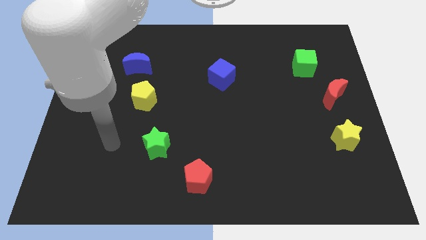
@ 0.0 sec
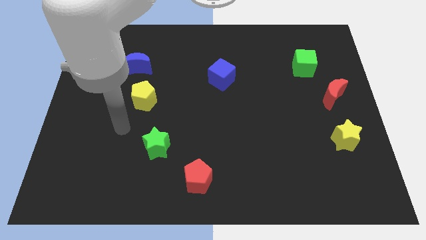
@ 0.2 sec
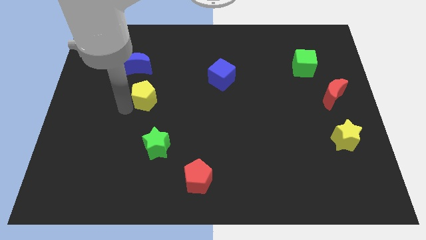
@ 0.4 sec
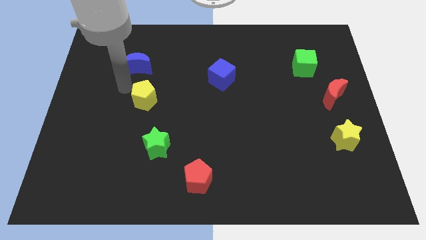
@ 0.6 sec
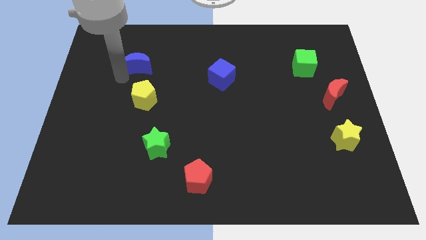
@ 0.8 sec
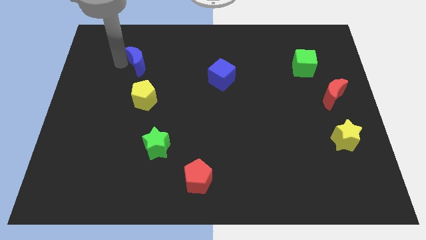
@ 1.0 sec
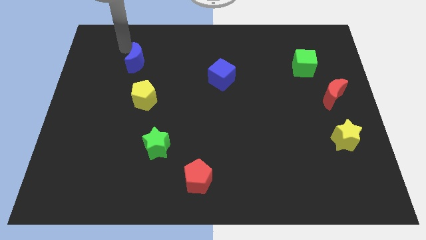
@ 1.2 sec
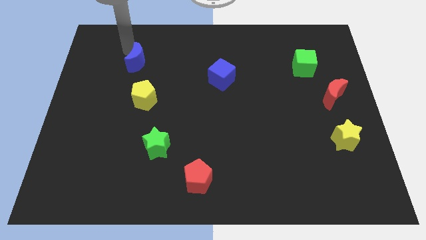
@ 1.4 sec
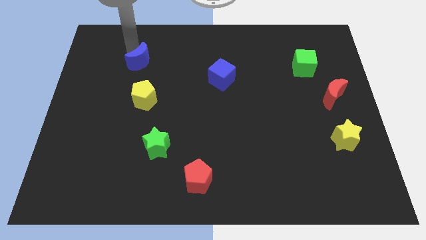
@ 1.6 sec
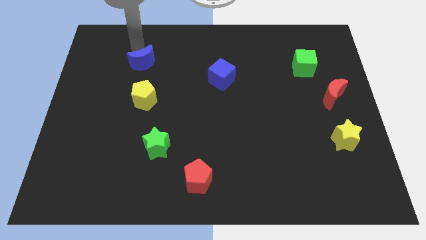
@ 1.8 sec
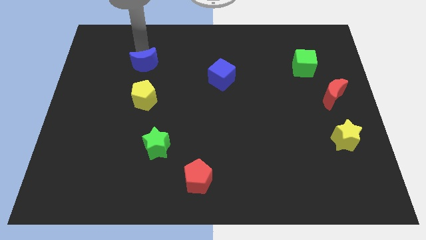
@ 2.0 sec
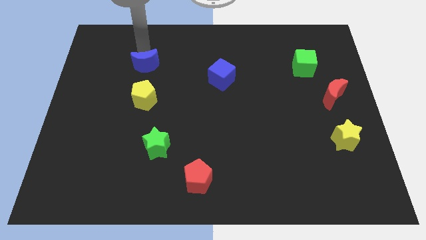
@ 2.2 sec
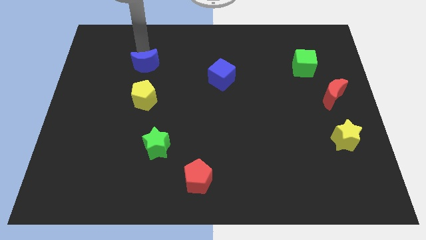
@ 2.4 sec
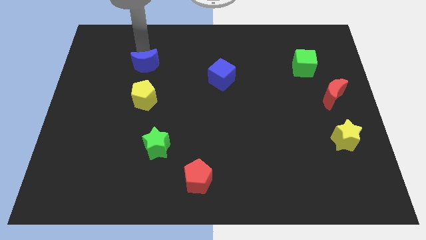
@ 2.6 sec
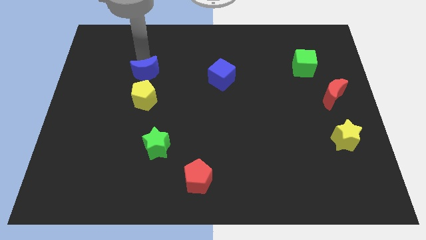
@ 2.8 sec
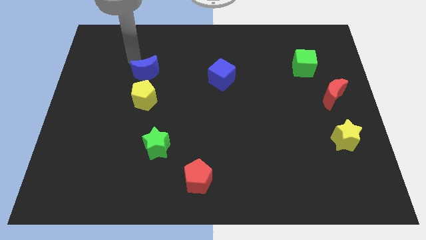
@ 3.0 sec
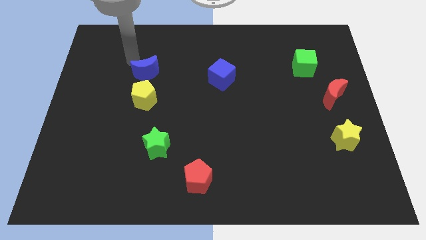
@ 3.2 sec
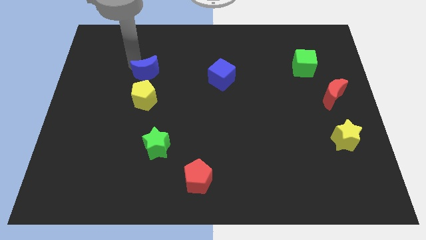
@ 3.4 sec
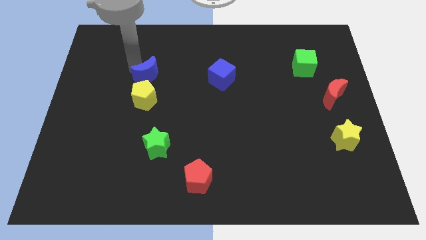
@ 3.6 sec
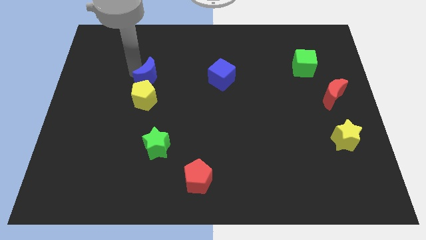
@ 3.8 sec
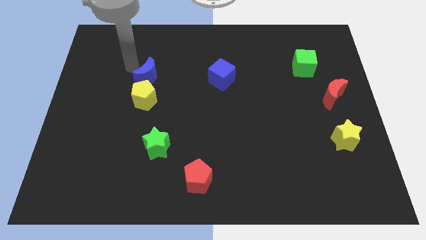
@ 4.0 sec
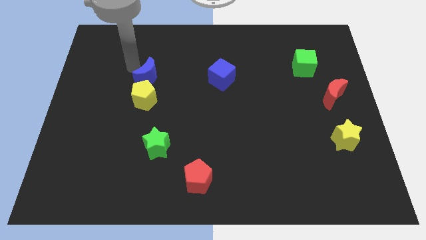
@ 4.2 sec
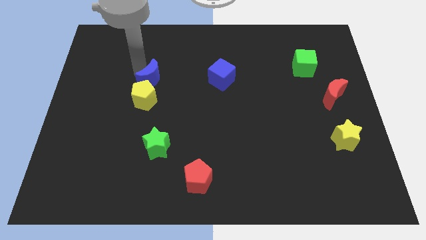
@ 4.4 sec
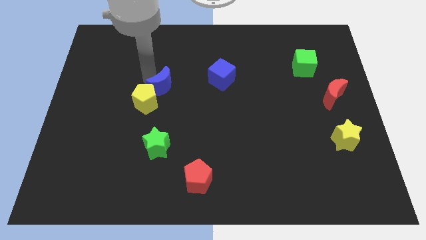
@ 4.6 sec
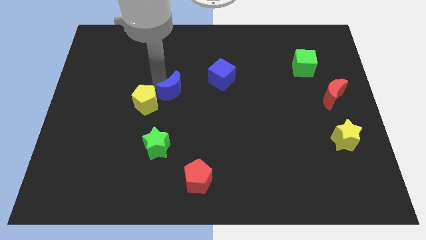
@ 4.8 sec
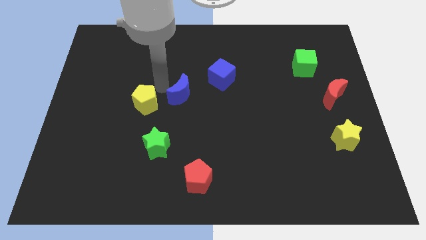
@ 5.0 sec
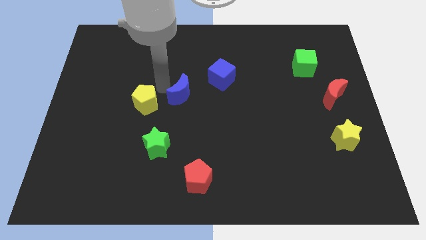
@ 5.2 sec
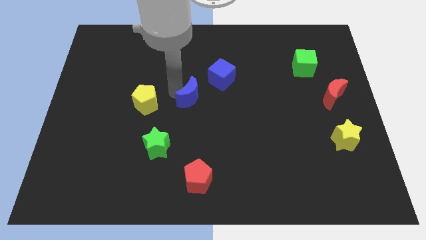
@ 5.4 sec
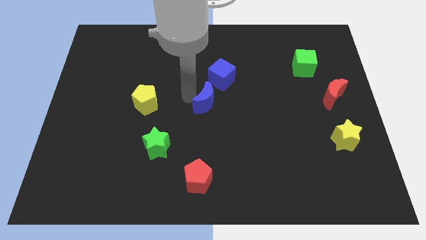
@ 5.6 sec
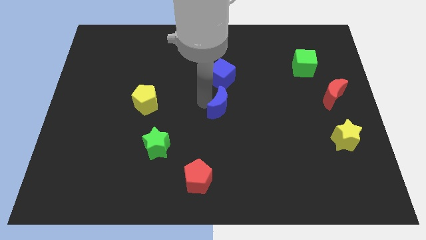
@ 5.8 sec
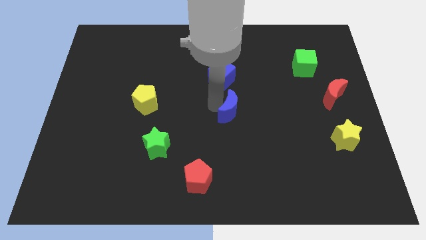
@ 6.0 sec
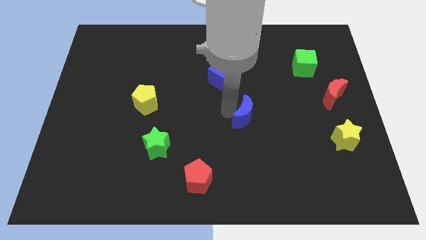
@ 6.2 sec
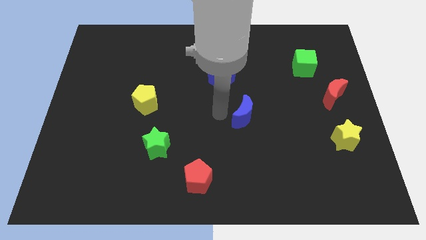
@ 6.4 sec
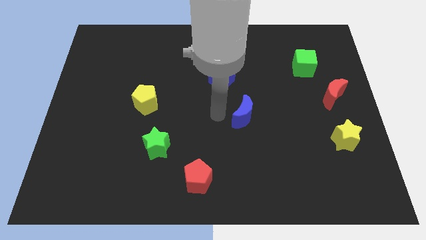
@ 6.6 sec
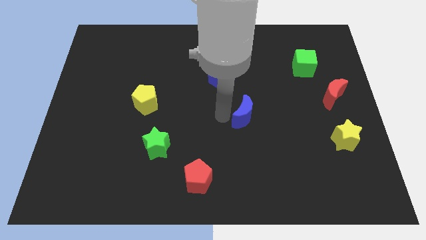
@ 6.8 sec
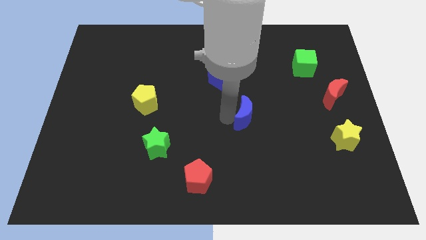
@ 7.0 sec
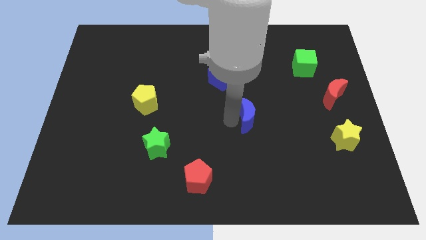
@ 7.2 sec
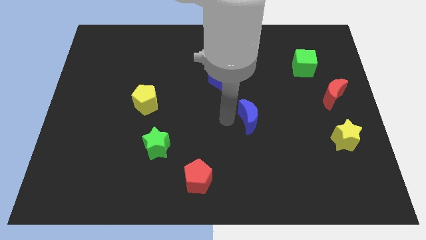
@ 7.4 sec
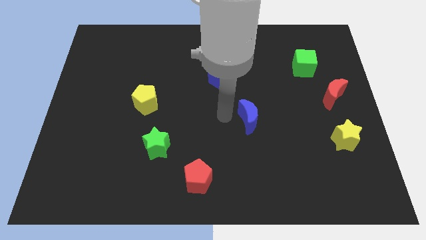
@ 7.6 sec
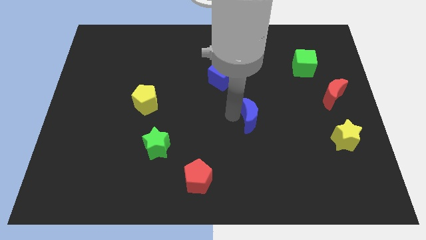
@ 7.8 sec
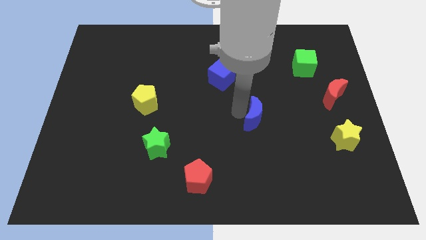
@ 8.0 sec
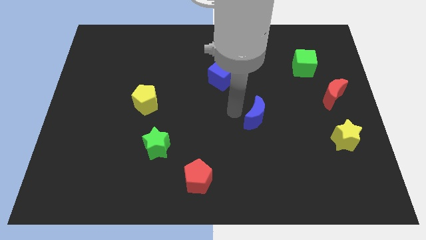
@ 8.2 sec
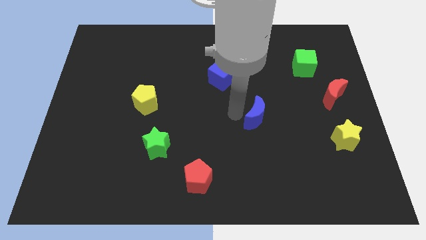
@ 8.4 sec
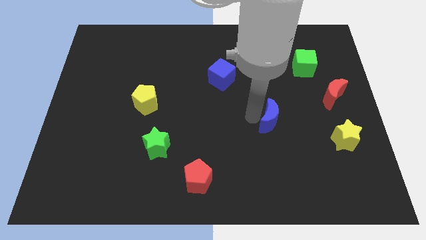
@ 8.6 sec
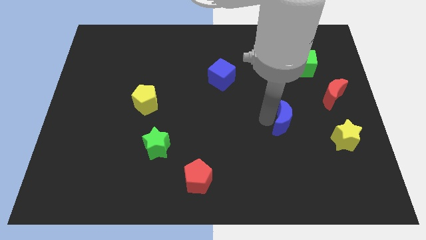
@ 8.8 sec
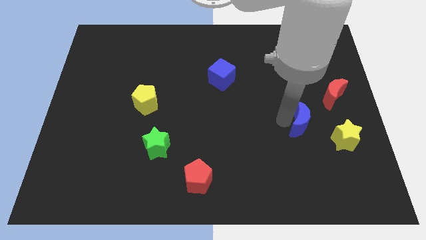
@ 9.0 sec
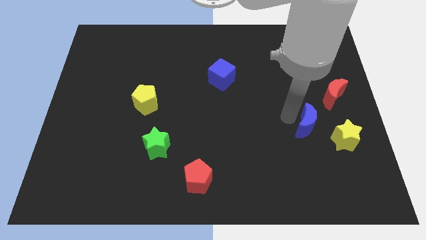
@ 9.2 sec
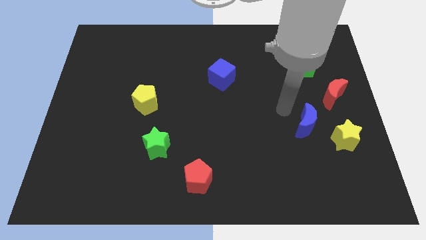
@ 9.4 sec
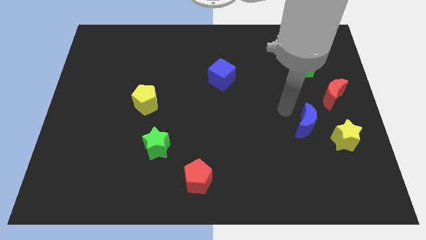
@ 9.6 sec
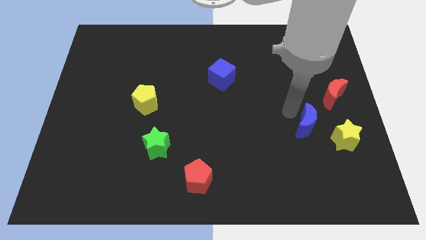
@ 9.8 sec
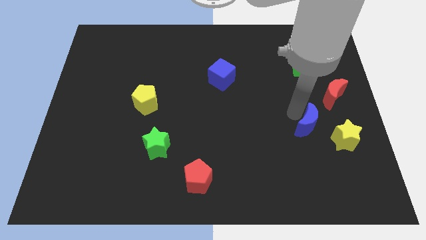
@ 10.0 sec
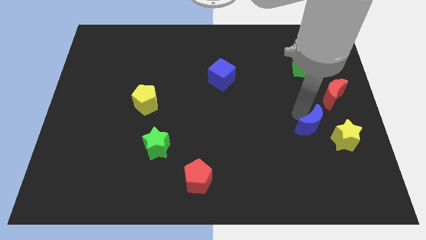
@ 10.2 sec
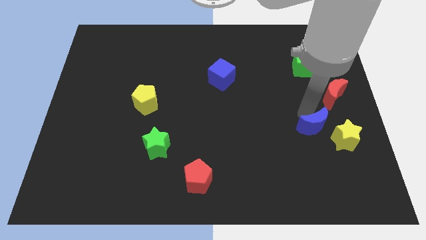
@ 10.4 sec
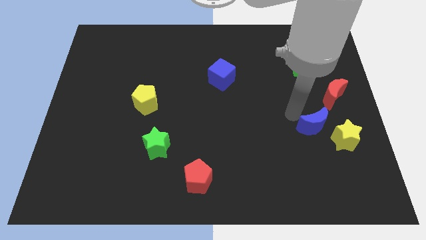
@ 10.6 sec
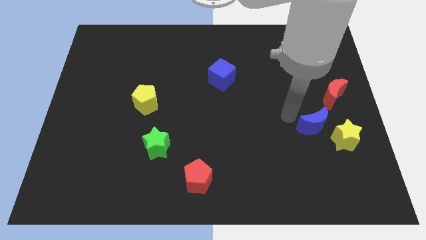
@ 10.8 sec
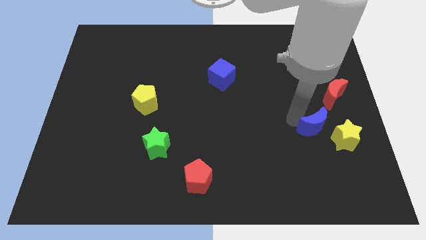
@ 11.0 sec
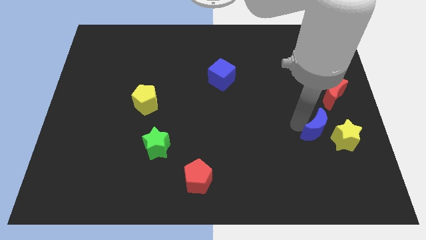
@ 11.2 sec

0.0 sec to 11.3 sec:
push the blue moon close to the yellow star

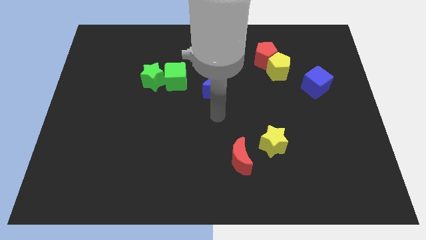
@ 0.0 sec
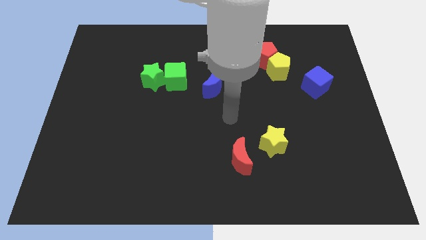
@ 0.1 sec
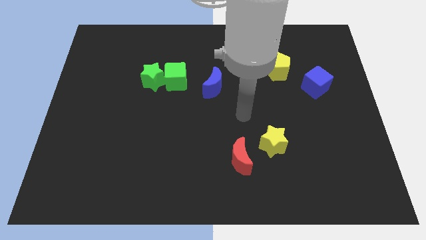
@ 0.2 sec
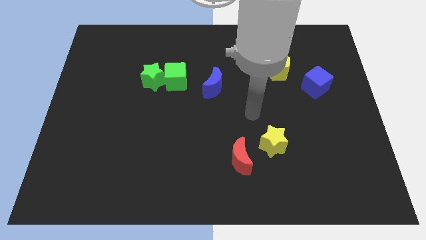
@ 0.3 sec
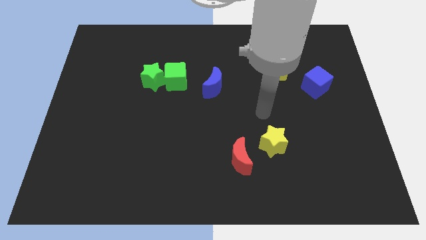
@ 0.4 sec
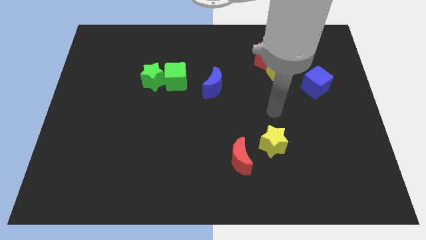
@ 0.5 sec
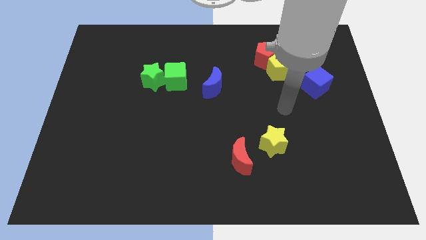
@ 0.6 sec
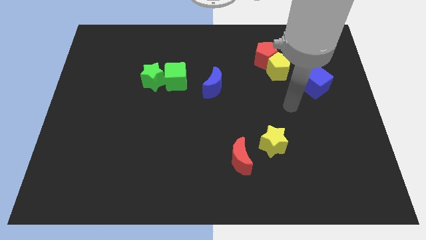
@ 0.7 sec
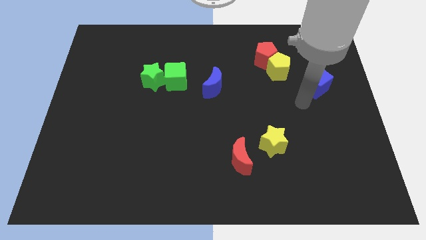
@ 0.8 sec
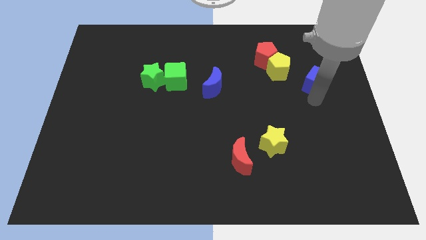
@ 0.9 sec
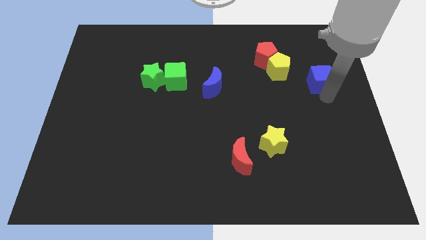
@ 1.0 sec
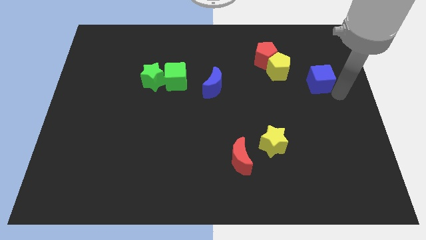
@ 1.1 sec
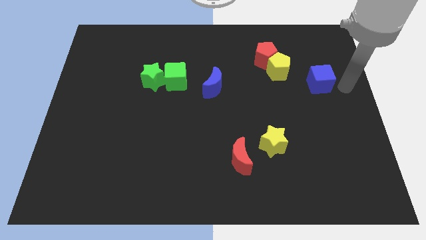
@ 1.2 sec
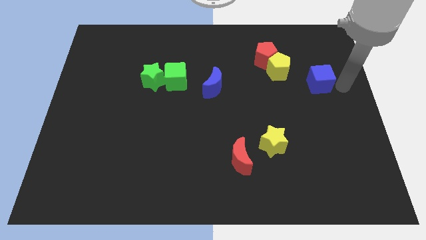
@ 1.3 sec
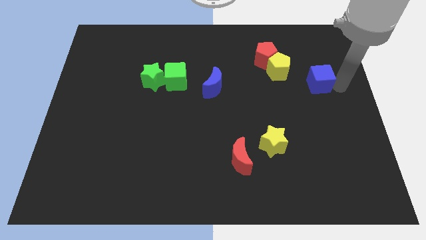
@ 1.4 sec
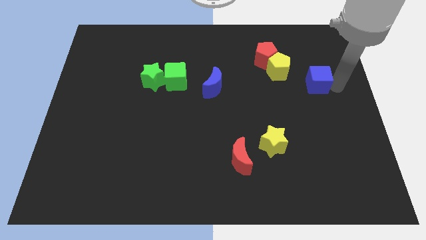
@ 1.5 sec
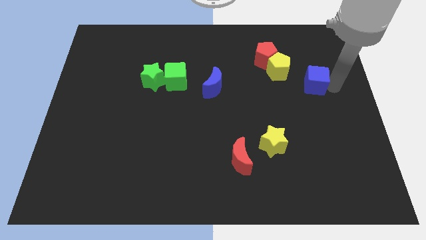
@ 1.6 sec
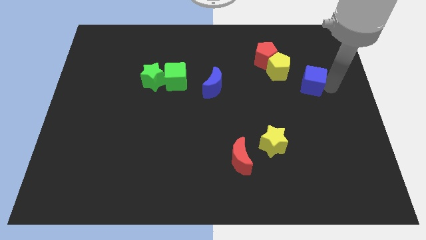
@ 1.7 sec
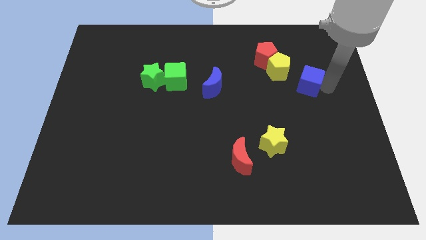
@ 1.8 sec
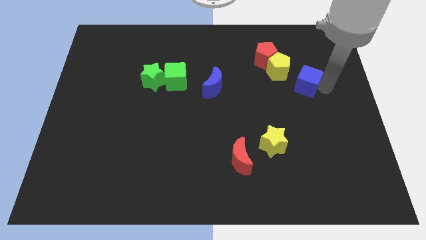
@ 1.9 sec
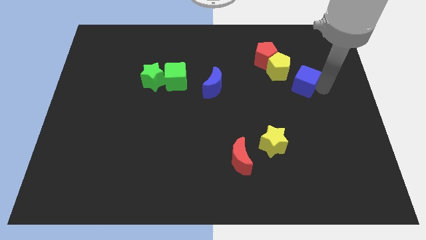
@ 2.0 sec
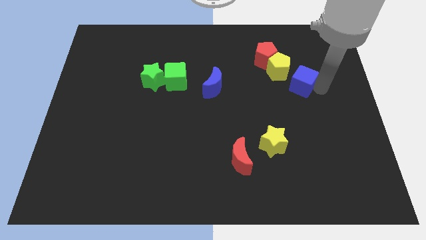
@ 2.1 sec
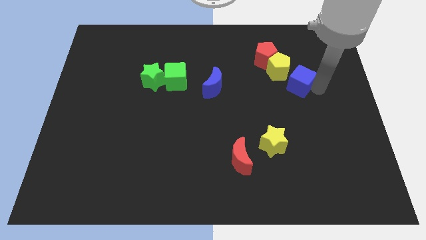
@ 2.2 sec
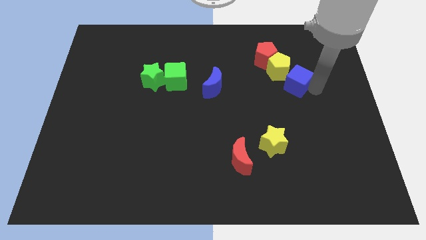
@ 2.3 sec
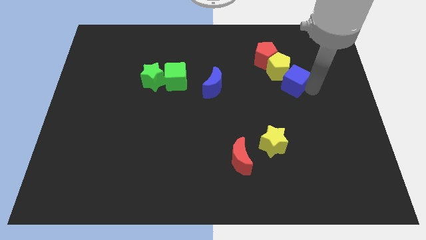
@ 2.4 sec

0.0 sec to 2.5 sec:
put the blue cube towards the yellow pentagon
